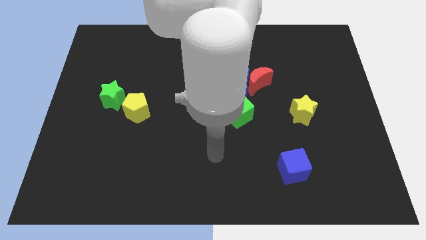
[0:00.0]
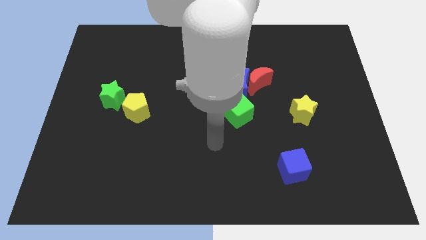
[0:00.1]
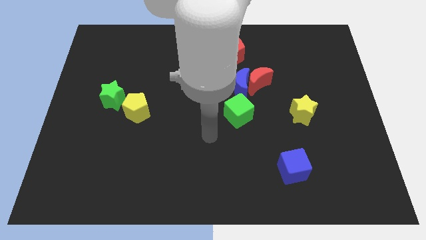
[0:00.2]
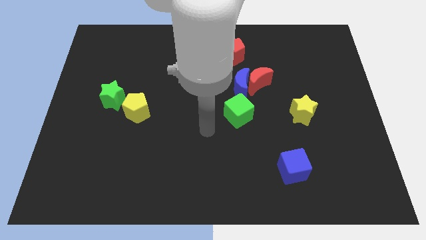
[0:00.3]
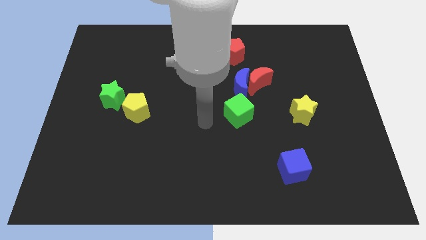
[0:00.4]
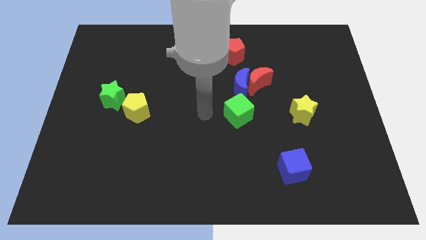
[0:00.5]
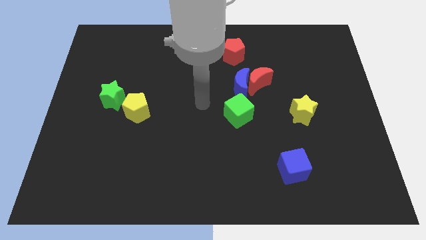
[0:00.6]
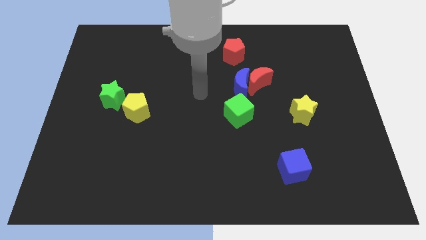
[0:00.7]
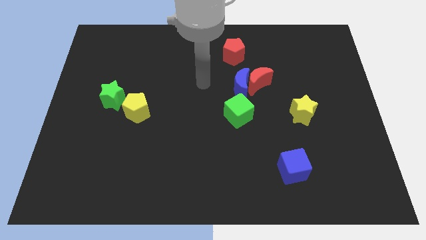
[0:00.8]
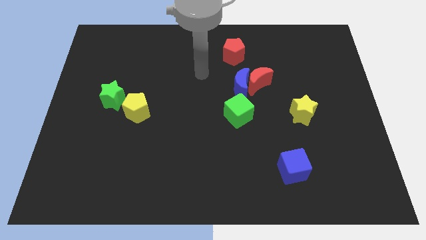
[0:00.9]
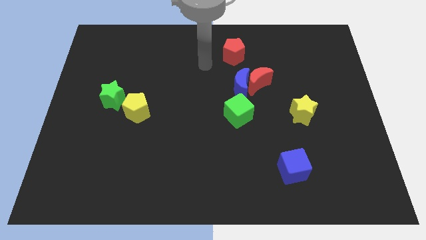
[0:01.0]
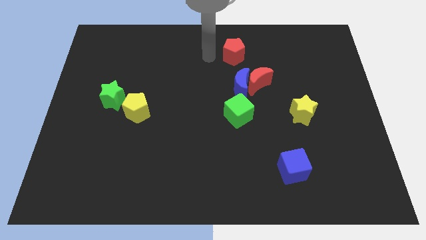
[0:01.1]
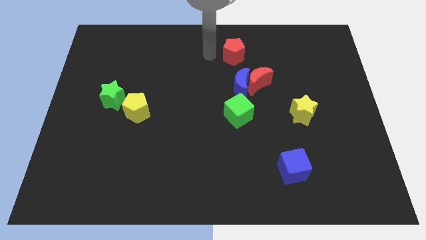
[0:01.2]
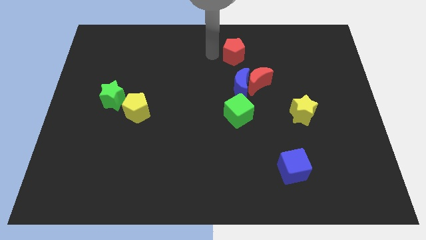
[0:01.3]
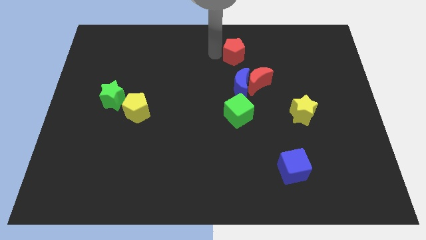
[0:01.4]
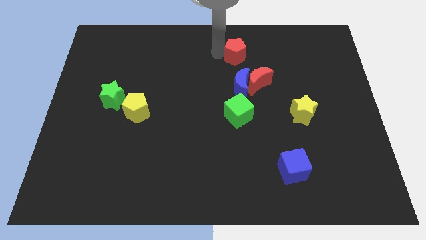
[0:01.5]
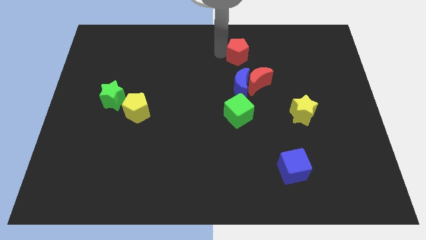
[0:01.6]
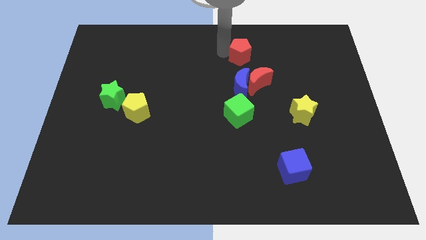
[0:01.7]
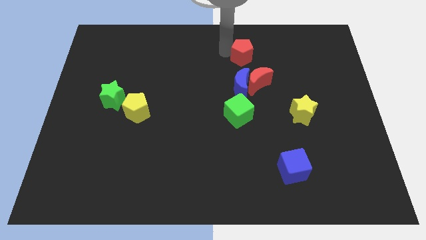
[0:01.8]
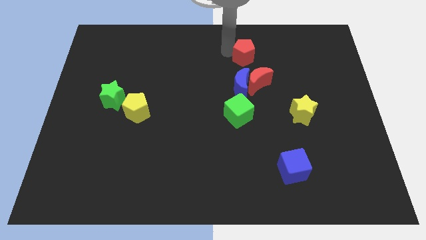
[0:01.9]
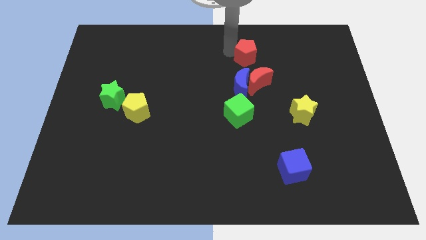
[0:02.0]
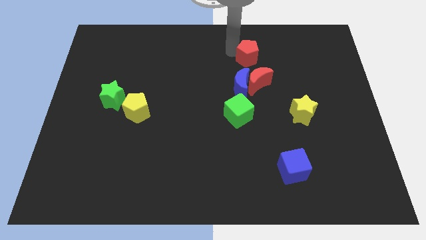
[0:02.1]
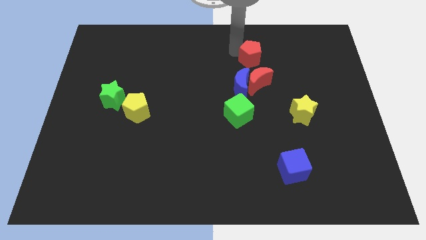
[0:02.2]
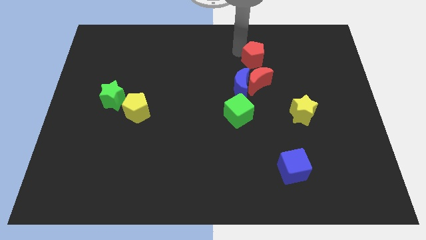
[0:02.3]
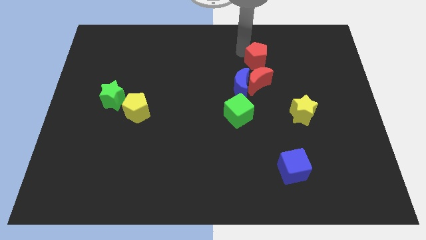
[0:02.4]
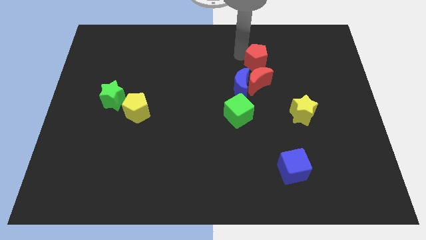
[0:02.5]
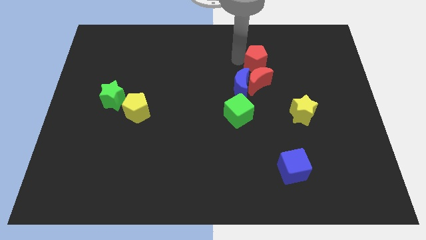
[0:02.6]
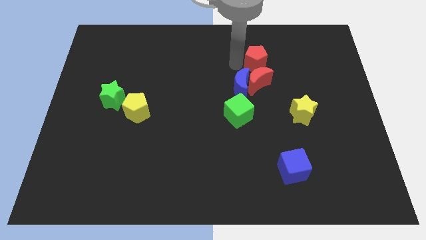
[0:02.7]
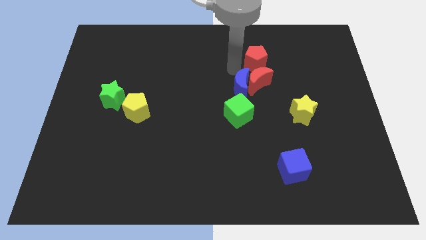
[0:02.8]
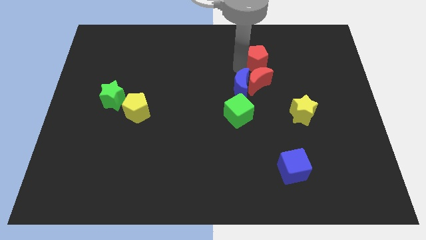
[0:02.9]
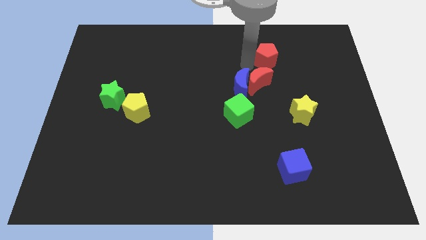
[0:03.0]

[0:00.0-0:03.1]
push the red pentagon slightly to the right

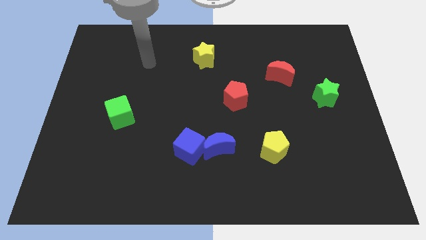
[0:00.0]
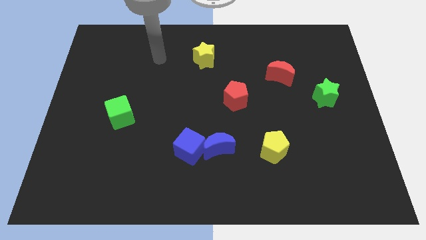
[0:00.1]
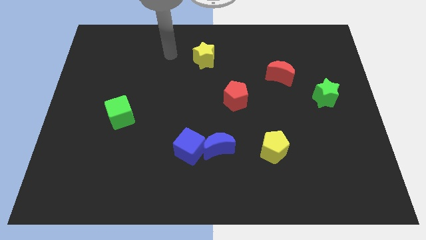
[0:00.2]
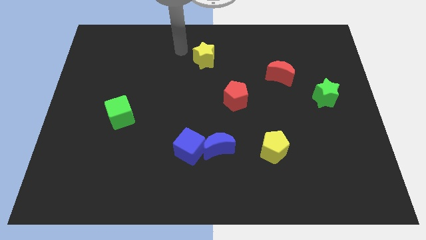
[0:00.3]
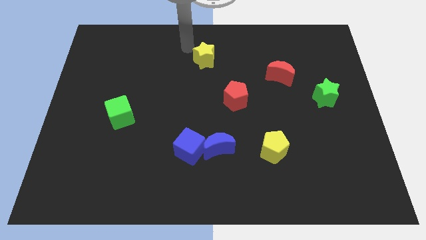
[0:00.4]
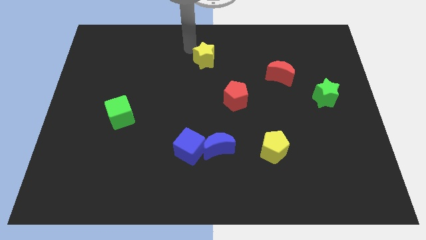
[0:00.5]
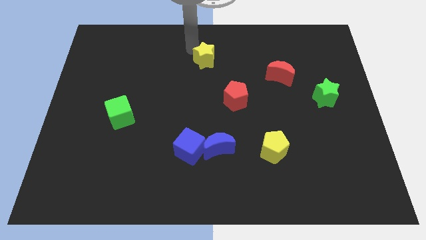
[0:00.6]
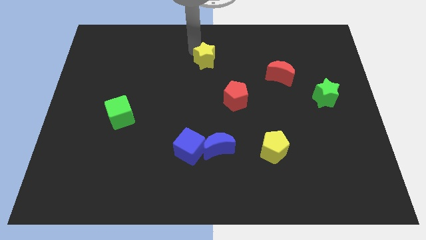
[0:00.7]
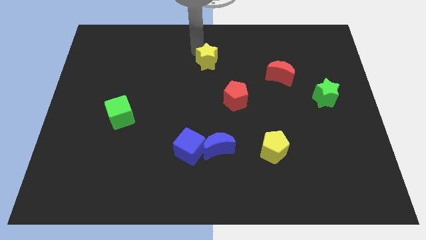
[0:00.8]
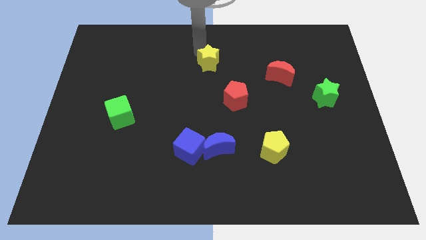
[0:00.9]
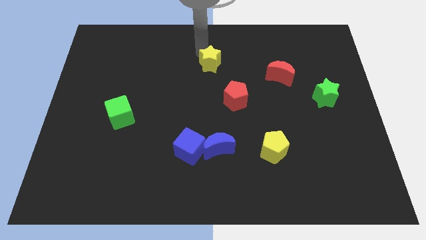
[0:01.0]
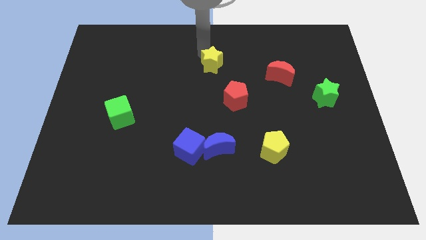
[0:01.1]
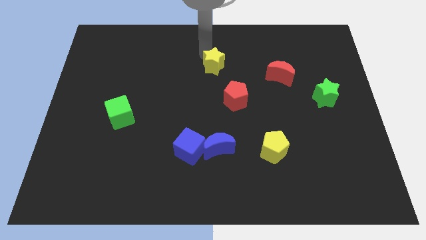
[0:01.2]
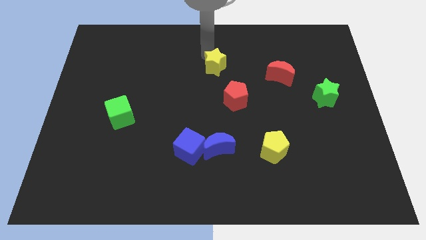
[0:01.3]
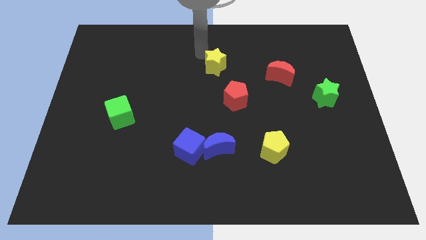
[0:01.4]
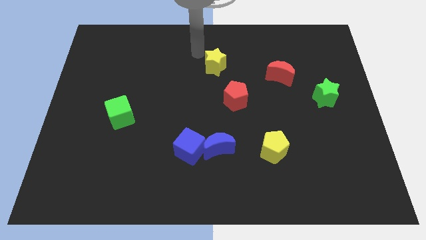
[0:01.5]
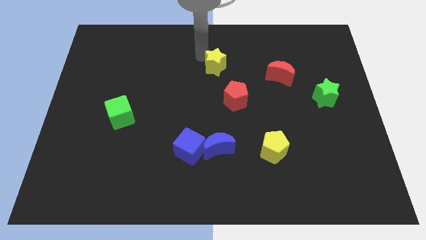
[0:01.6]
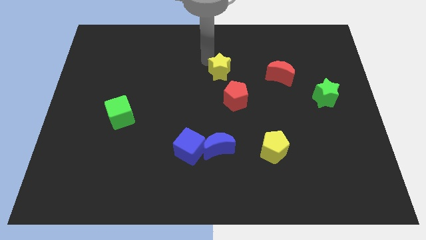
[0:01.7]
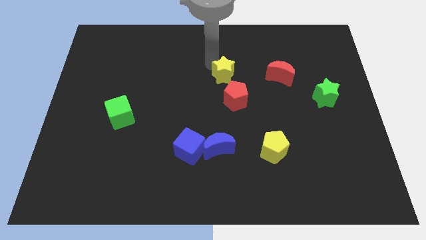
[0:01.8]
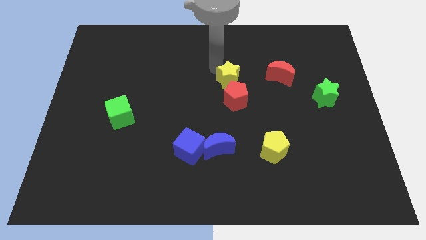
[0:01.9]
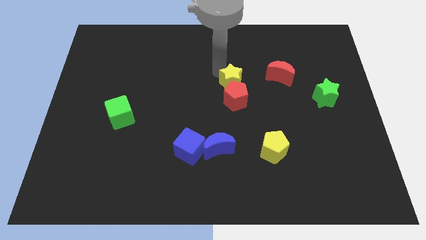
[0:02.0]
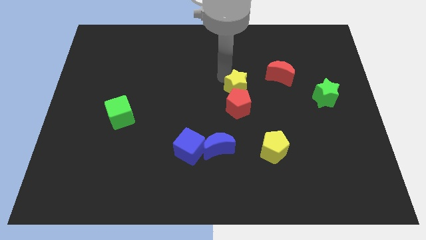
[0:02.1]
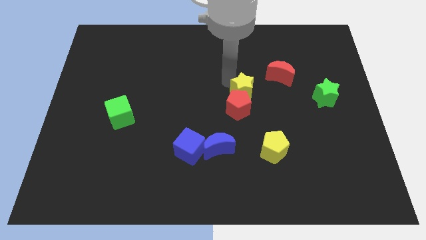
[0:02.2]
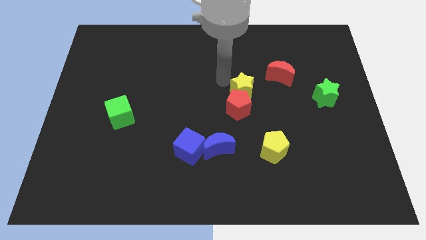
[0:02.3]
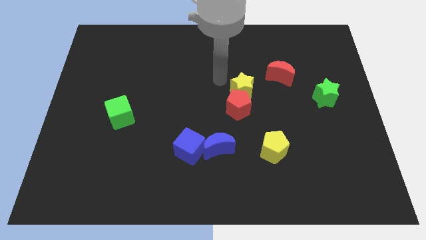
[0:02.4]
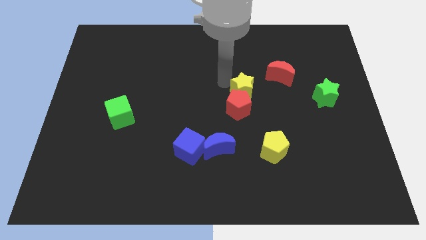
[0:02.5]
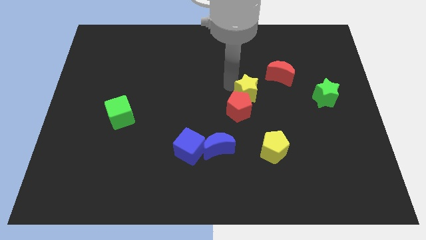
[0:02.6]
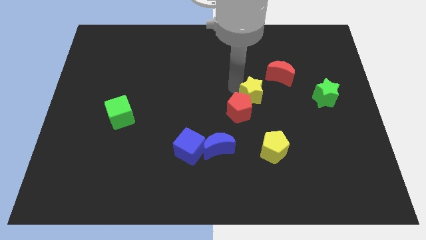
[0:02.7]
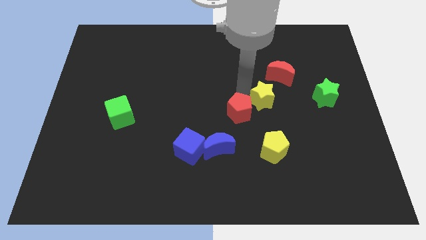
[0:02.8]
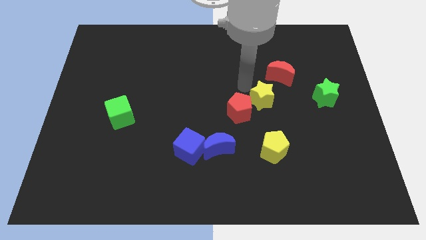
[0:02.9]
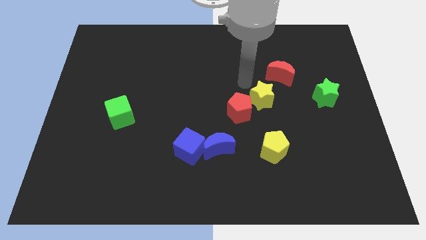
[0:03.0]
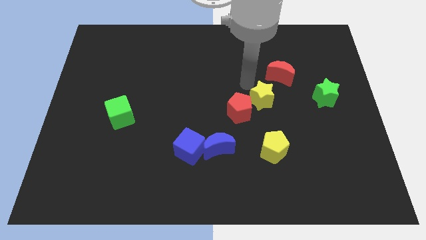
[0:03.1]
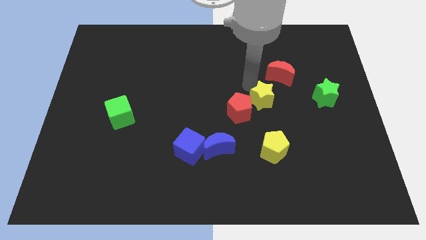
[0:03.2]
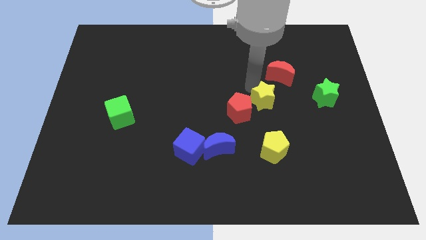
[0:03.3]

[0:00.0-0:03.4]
move the yellow star diagonally down and to the right

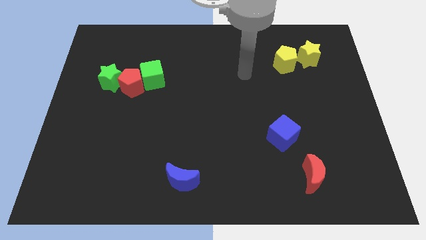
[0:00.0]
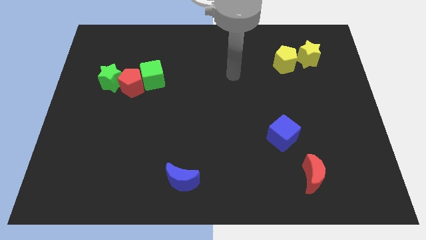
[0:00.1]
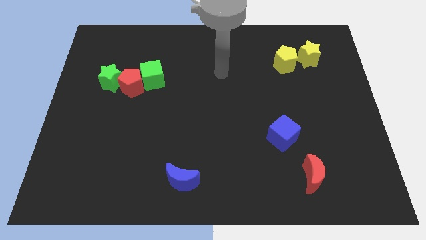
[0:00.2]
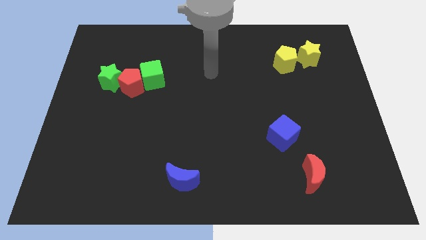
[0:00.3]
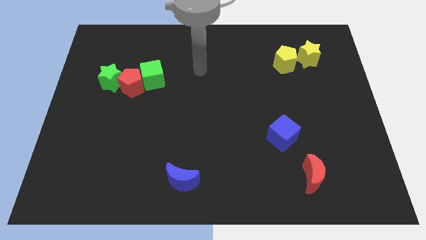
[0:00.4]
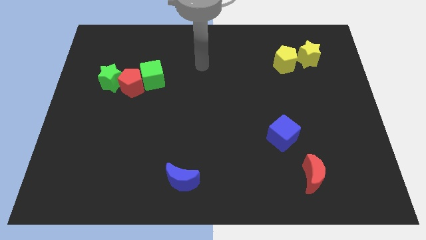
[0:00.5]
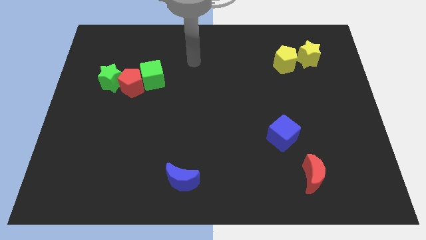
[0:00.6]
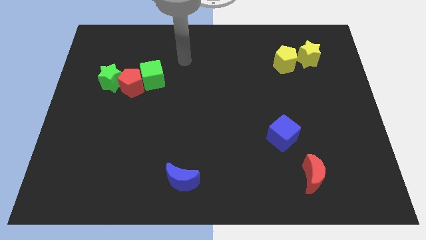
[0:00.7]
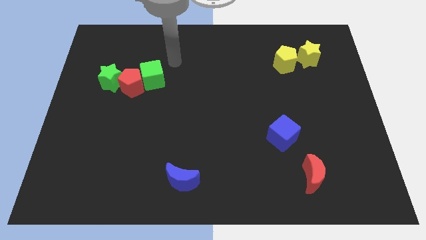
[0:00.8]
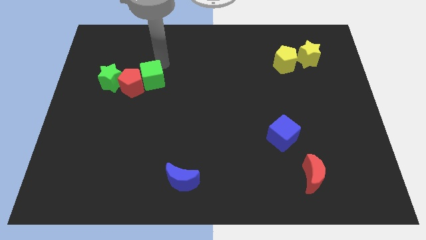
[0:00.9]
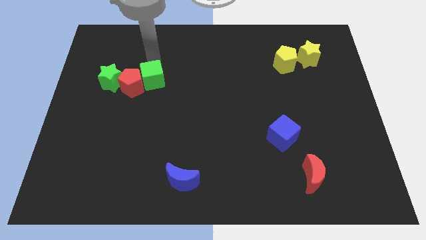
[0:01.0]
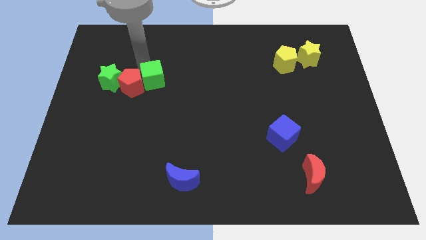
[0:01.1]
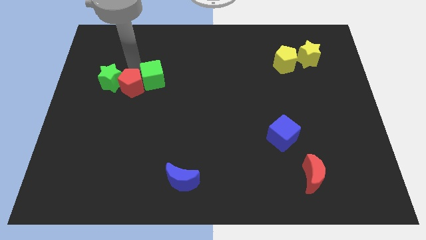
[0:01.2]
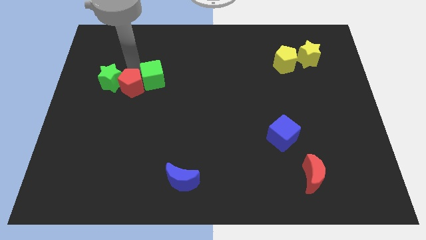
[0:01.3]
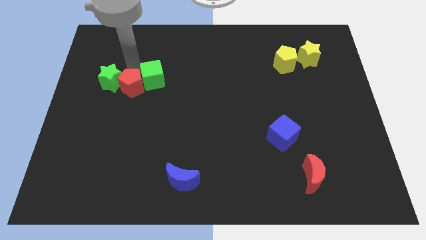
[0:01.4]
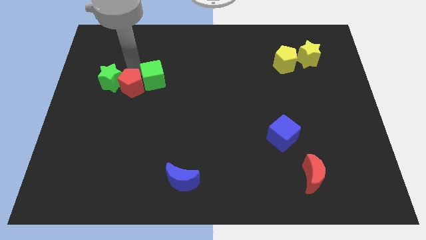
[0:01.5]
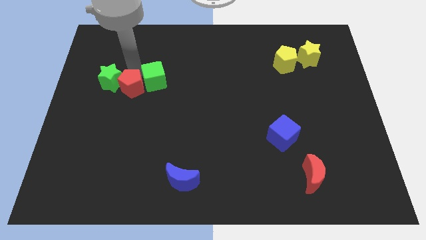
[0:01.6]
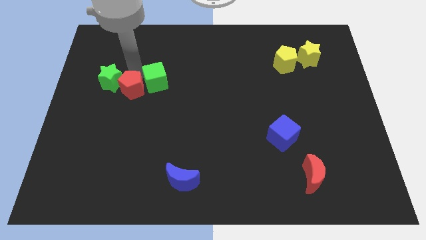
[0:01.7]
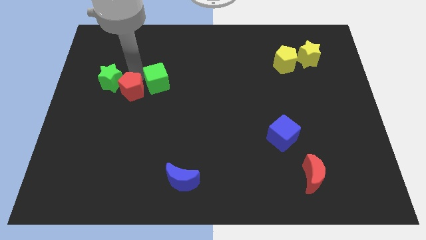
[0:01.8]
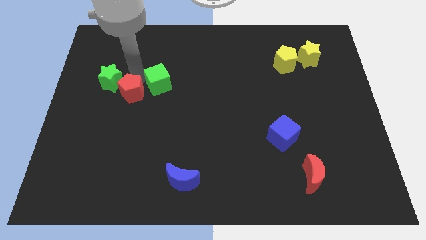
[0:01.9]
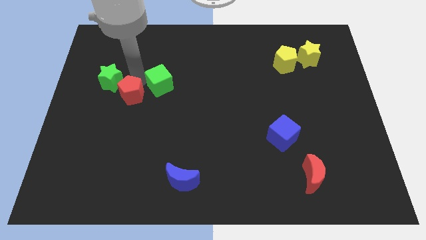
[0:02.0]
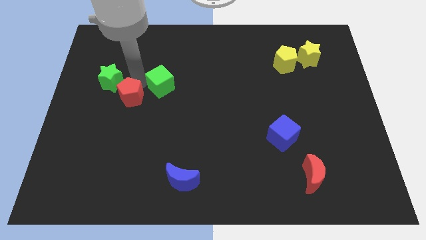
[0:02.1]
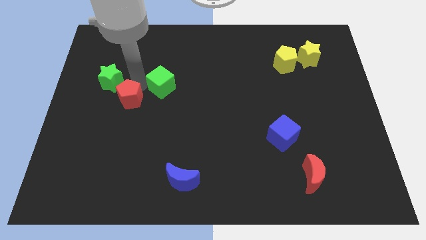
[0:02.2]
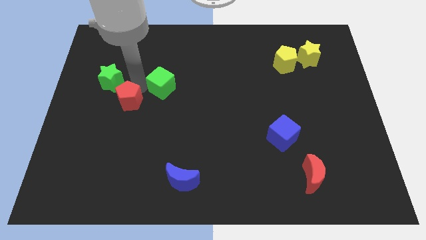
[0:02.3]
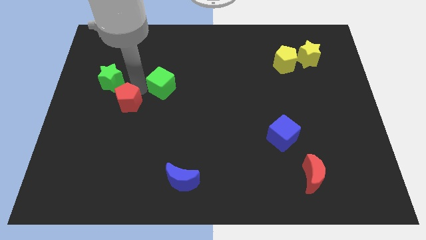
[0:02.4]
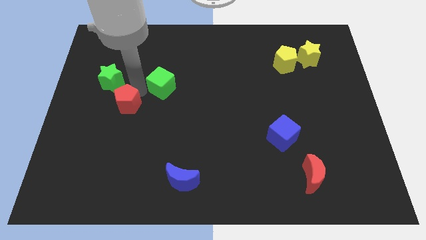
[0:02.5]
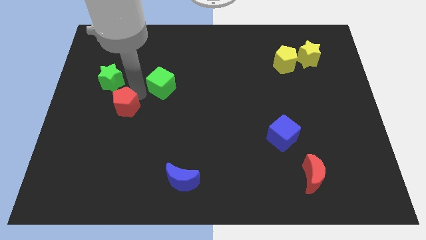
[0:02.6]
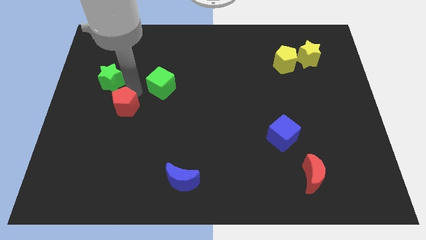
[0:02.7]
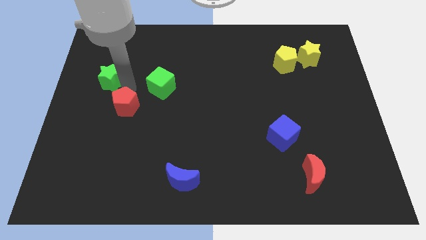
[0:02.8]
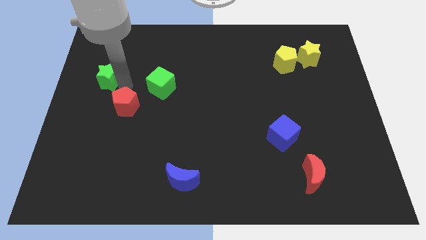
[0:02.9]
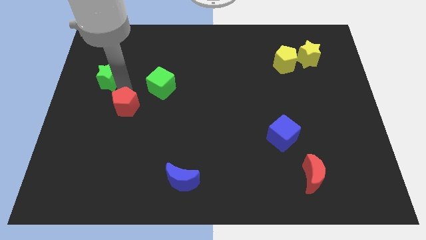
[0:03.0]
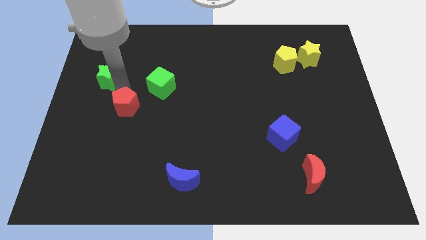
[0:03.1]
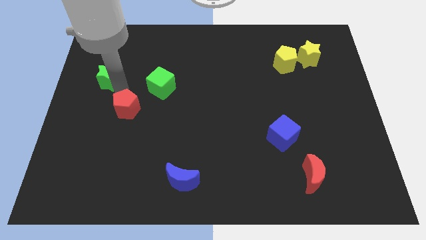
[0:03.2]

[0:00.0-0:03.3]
push the red pentagon downwards a bit
